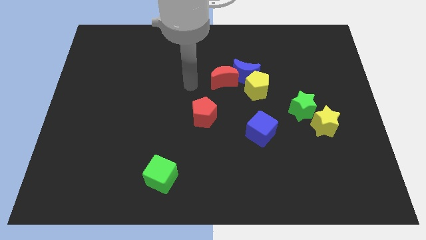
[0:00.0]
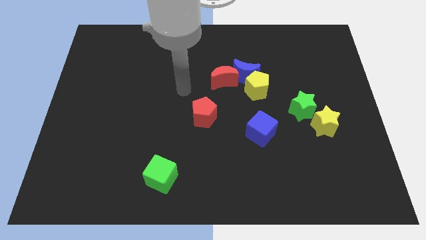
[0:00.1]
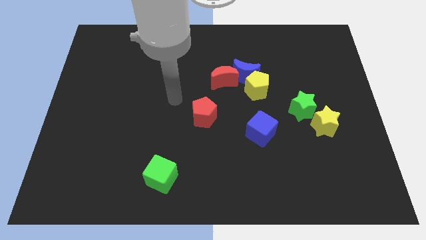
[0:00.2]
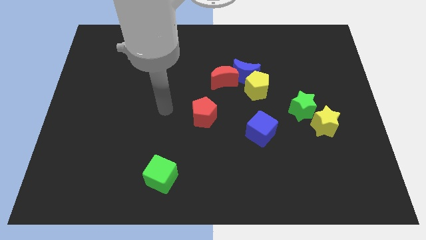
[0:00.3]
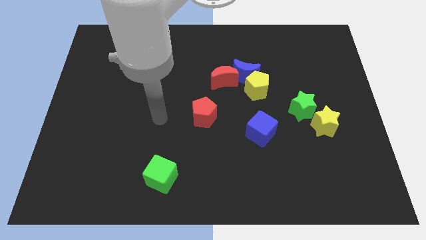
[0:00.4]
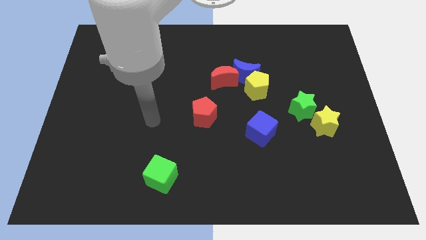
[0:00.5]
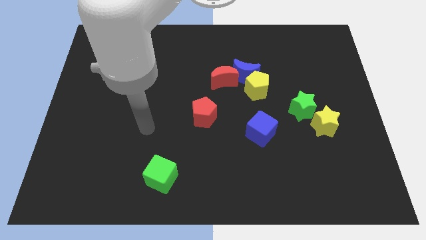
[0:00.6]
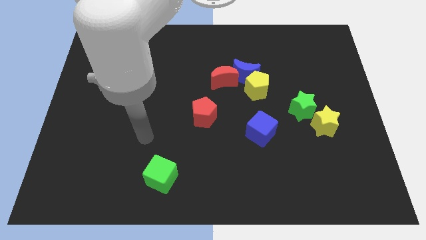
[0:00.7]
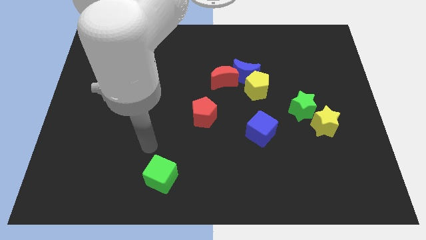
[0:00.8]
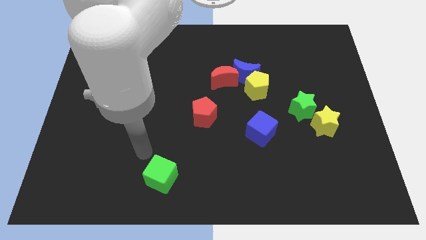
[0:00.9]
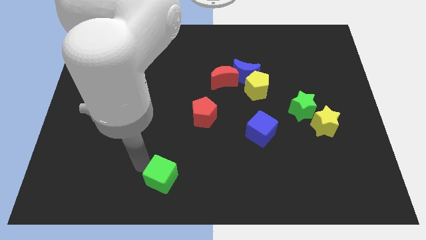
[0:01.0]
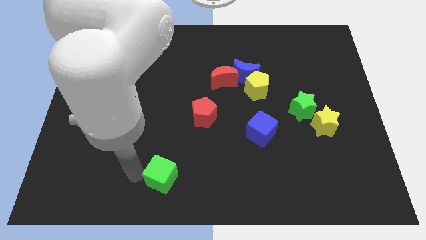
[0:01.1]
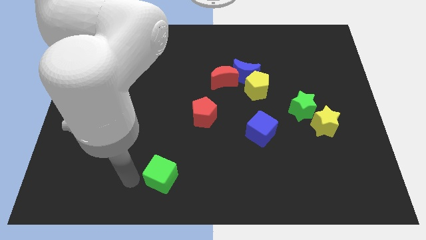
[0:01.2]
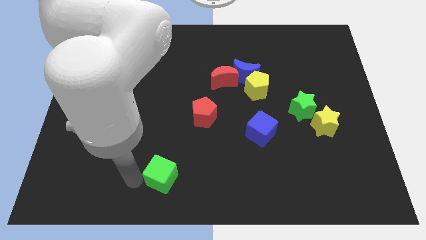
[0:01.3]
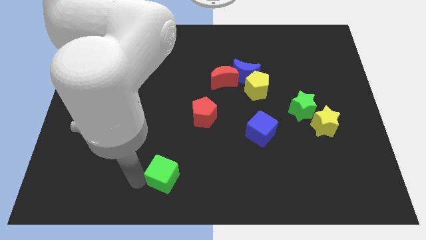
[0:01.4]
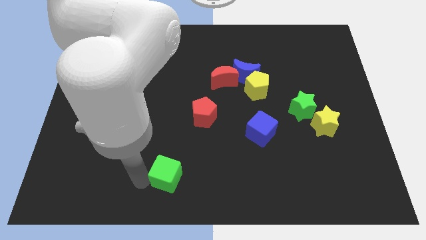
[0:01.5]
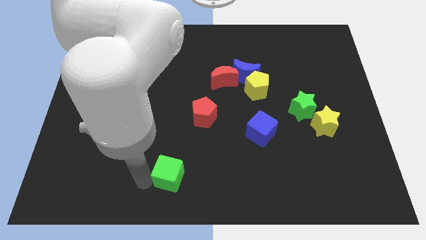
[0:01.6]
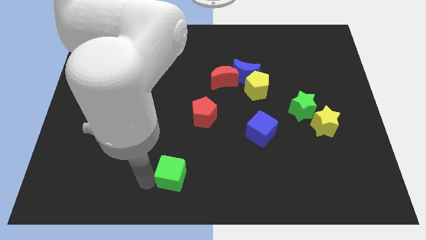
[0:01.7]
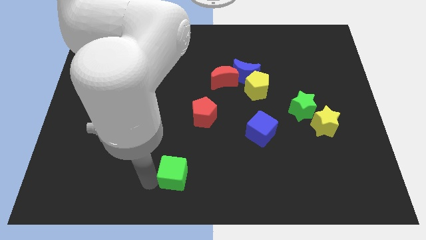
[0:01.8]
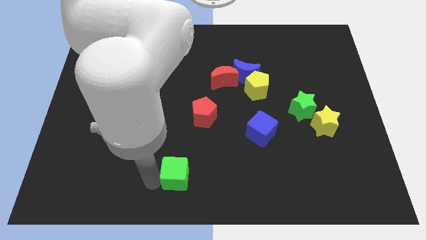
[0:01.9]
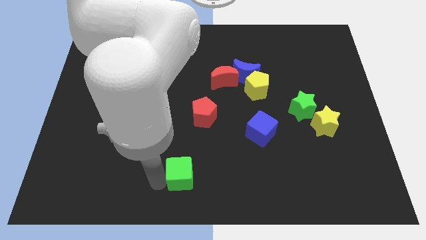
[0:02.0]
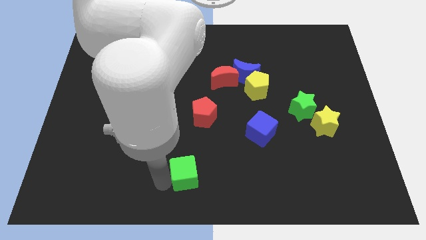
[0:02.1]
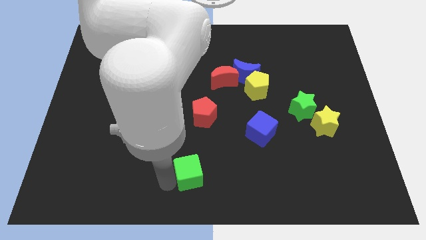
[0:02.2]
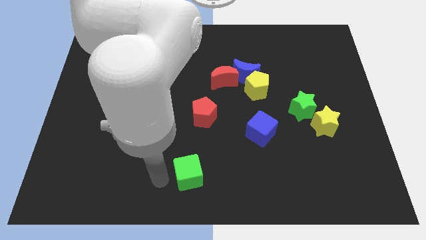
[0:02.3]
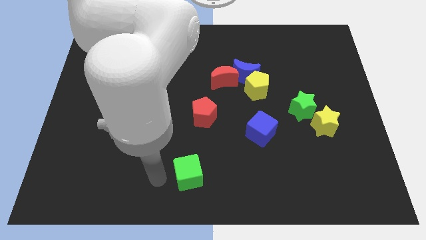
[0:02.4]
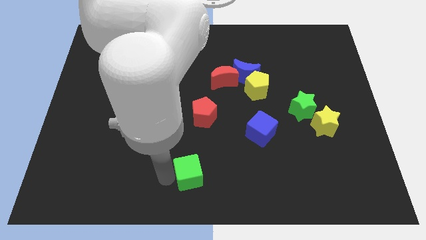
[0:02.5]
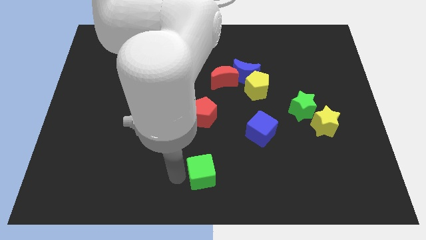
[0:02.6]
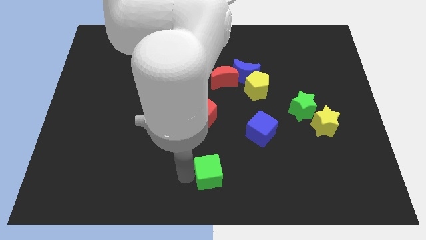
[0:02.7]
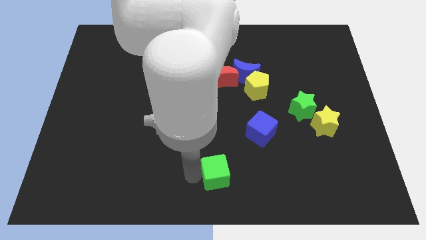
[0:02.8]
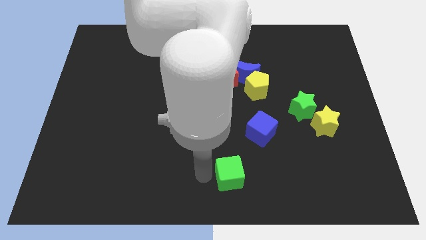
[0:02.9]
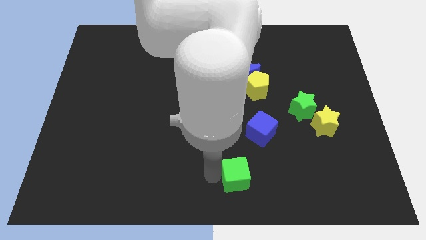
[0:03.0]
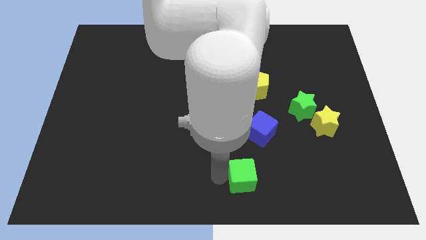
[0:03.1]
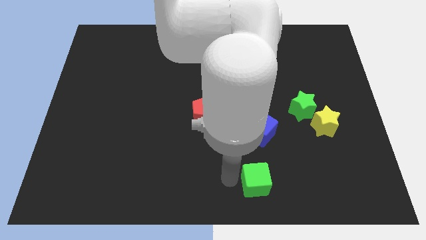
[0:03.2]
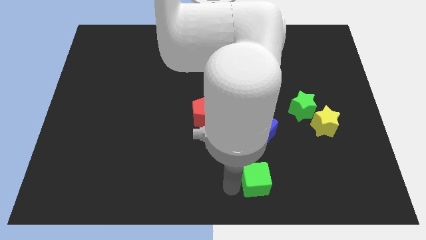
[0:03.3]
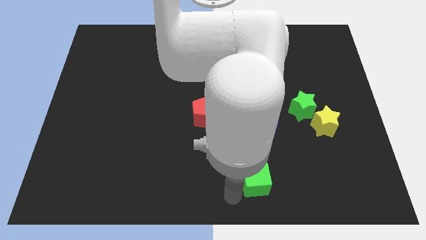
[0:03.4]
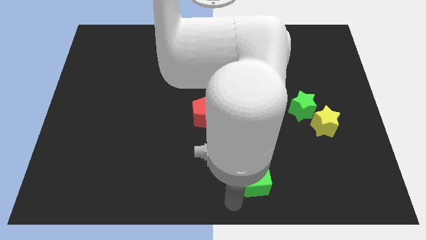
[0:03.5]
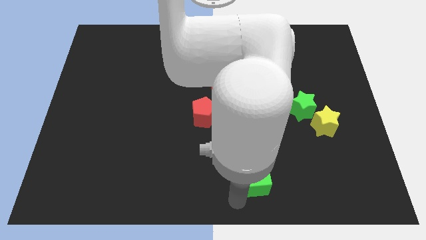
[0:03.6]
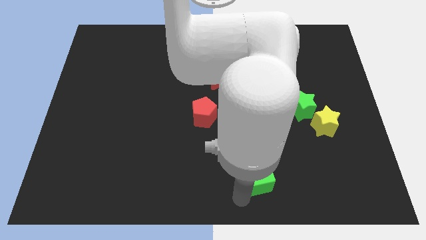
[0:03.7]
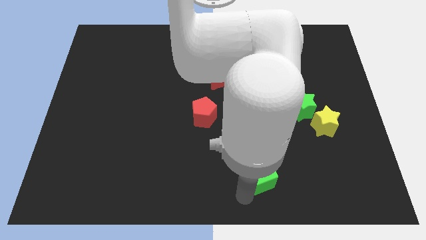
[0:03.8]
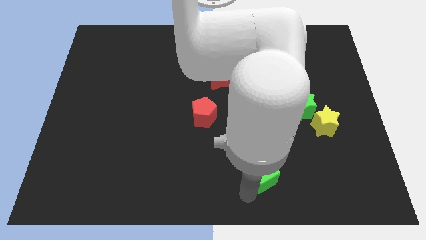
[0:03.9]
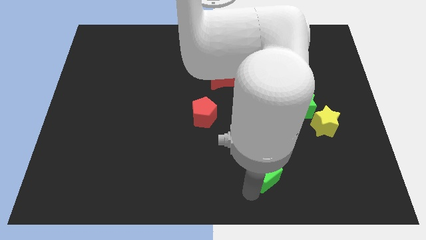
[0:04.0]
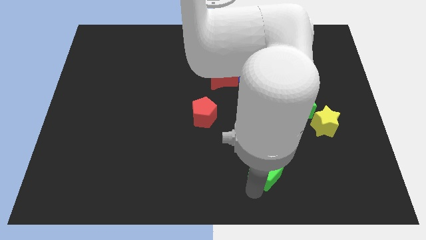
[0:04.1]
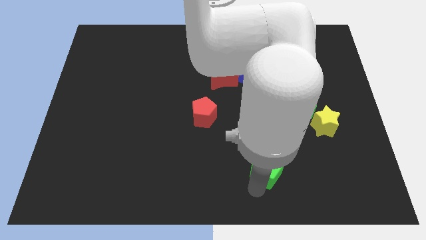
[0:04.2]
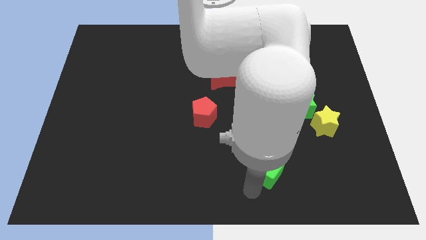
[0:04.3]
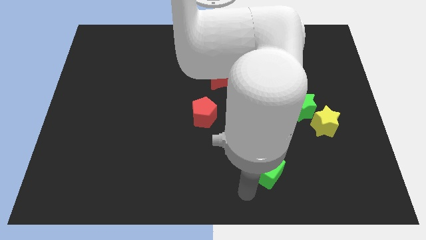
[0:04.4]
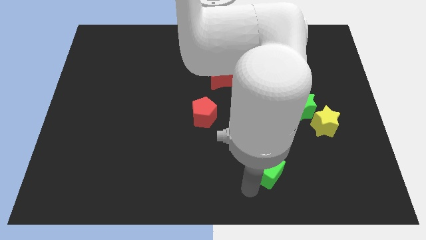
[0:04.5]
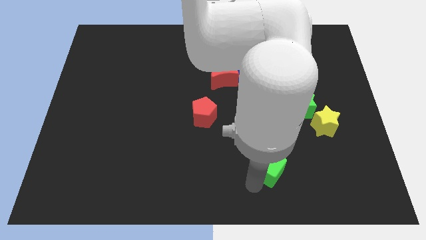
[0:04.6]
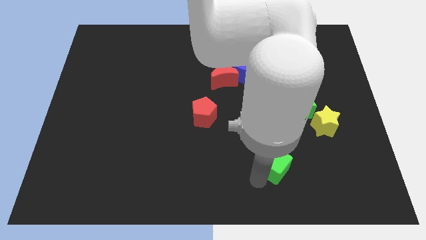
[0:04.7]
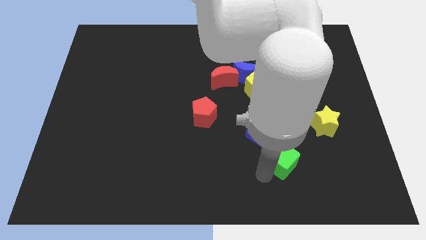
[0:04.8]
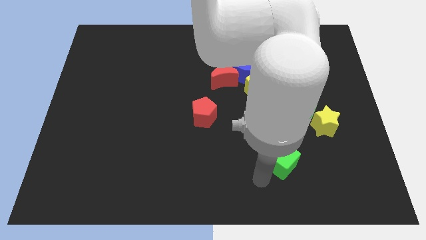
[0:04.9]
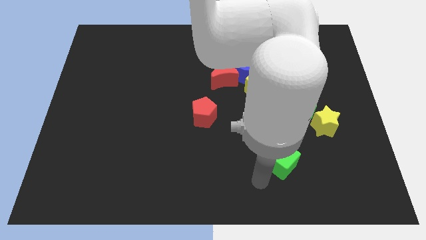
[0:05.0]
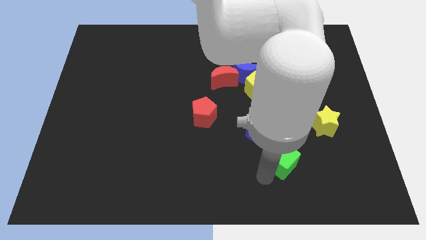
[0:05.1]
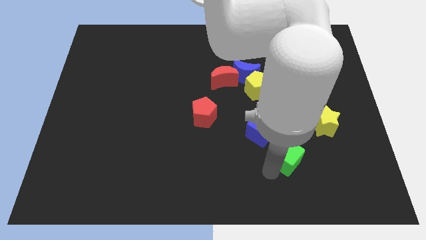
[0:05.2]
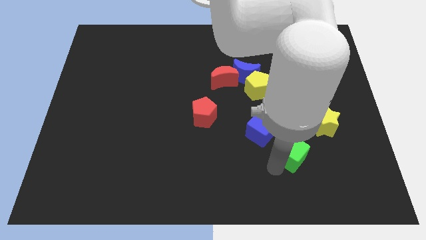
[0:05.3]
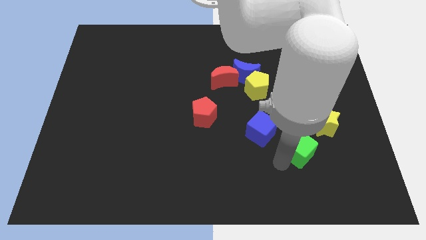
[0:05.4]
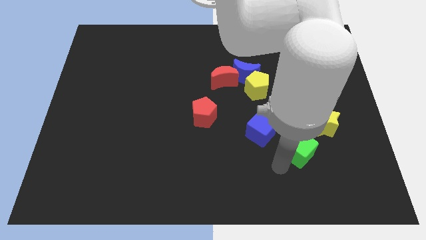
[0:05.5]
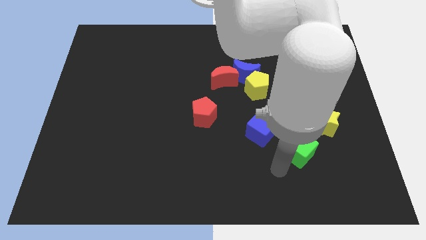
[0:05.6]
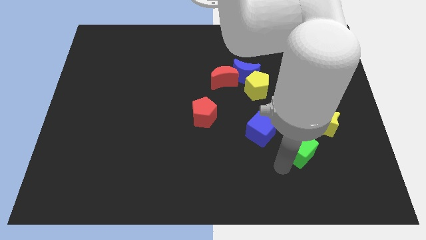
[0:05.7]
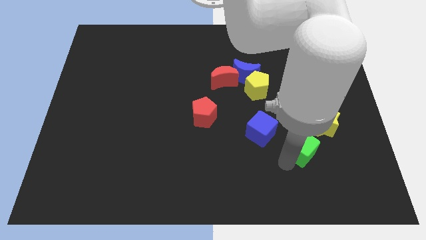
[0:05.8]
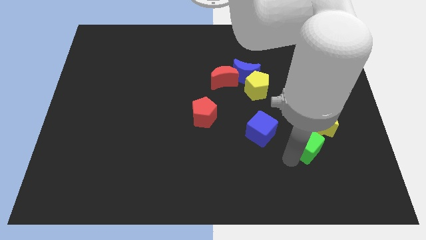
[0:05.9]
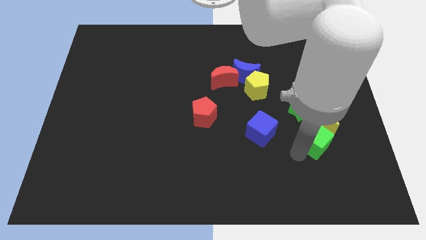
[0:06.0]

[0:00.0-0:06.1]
move the green cube to the yellow star

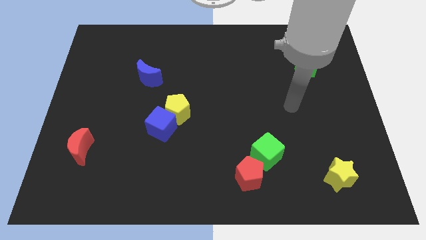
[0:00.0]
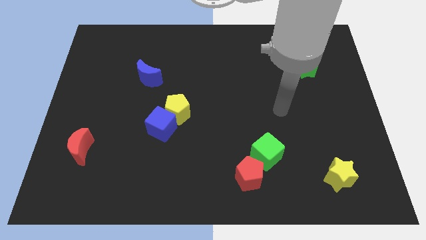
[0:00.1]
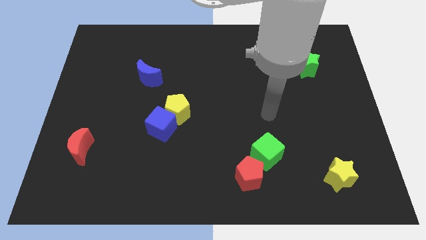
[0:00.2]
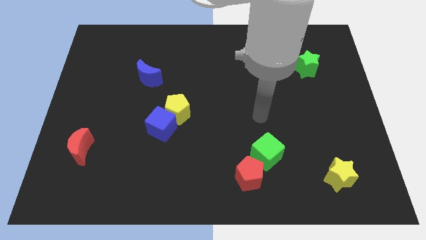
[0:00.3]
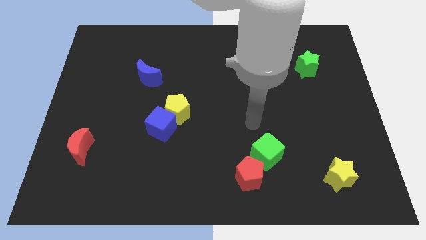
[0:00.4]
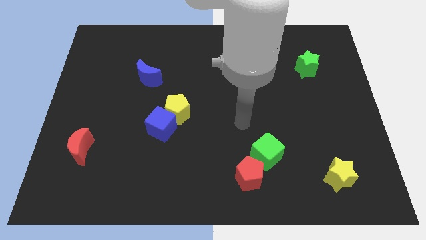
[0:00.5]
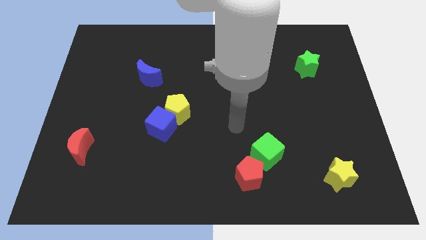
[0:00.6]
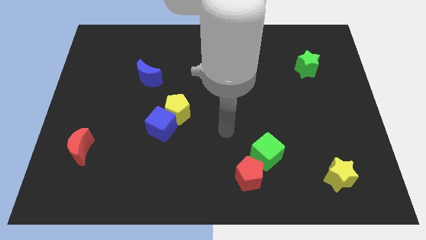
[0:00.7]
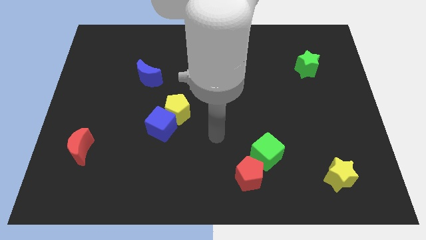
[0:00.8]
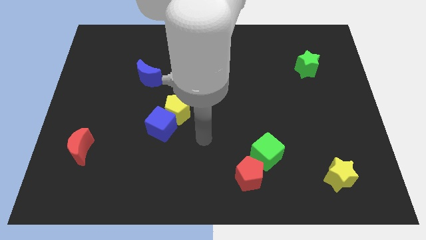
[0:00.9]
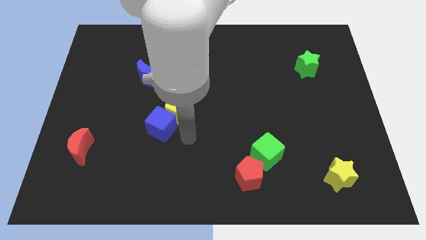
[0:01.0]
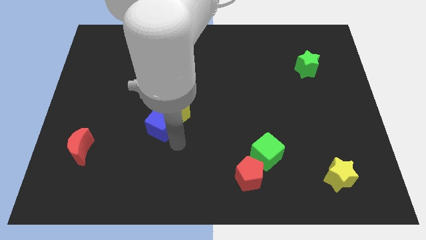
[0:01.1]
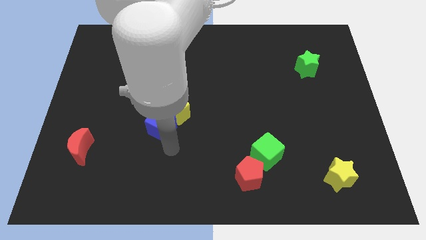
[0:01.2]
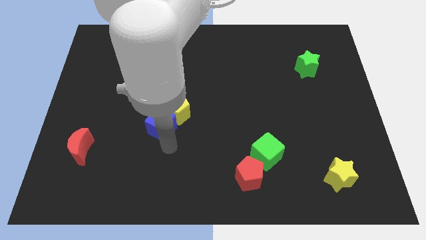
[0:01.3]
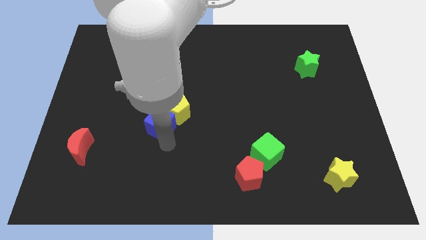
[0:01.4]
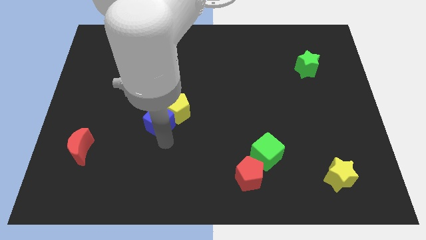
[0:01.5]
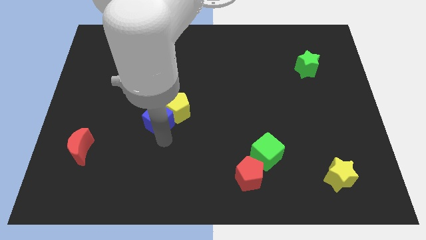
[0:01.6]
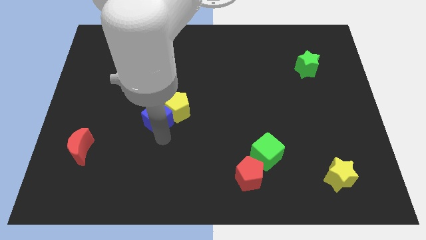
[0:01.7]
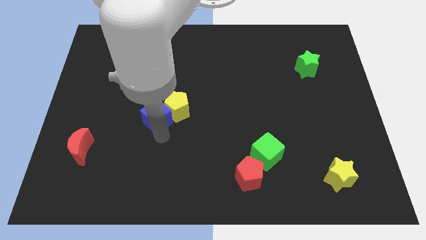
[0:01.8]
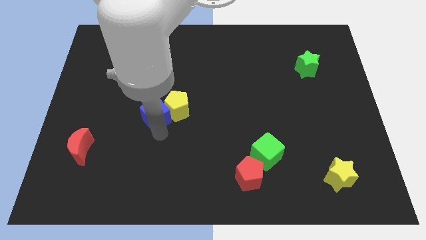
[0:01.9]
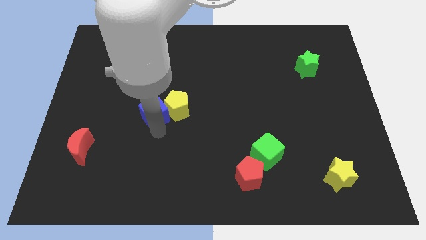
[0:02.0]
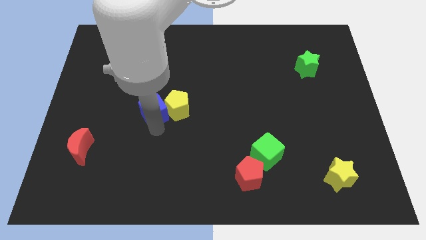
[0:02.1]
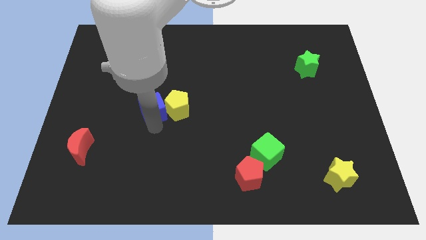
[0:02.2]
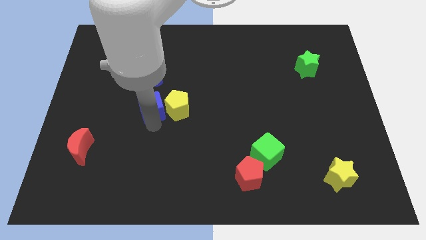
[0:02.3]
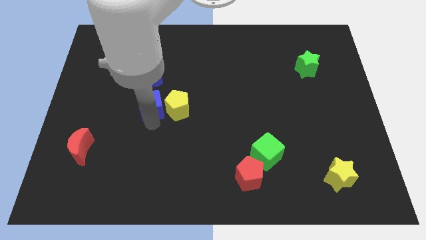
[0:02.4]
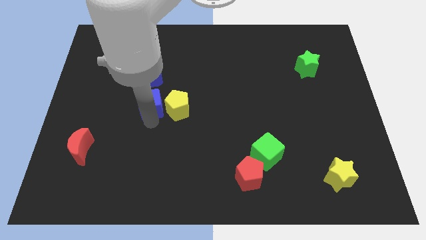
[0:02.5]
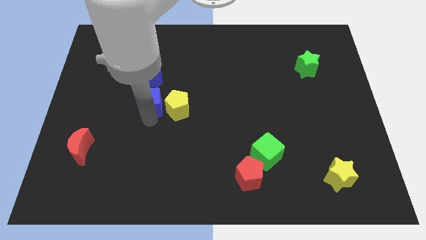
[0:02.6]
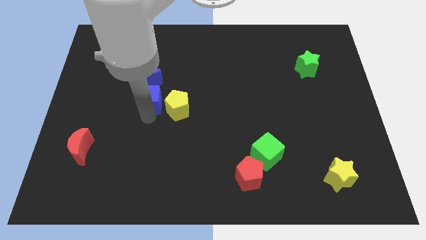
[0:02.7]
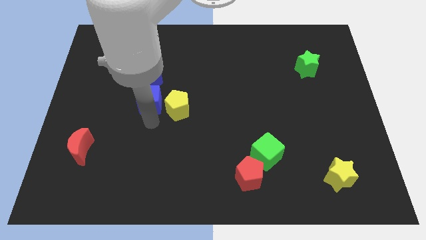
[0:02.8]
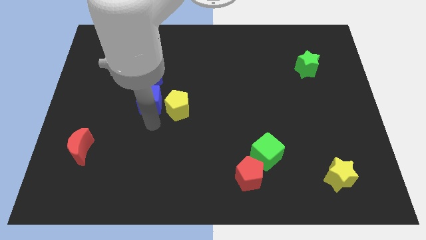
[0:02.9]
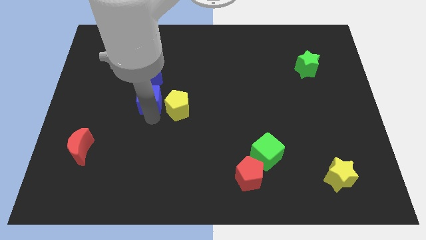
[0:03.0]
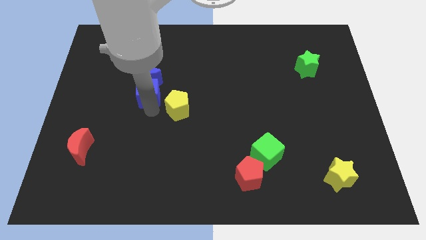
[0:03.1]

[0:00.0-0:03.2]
slide the blue cube towards the blue moon
